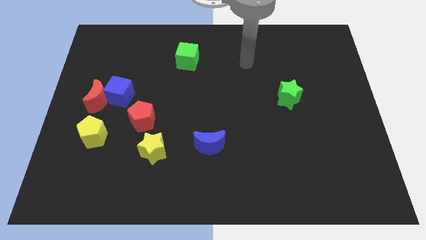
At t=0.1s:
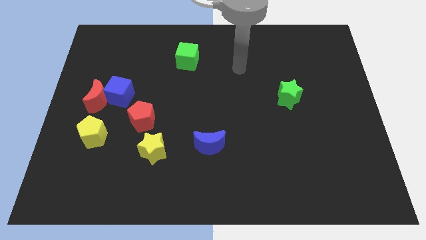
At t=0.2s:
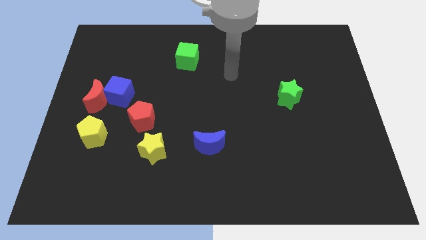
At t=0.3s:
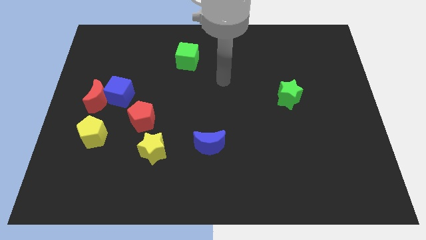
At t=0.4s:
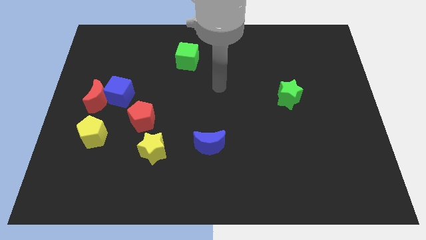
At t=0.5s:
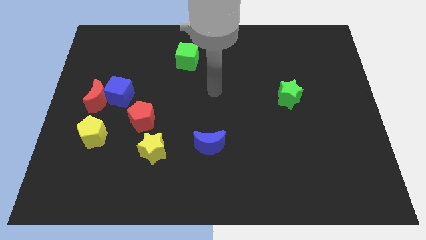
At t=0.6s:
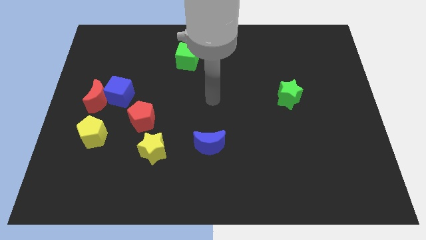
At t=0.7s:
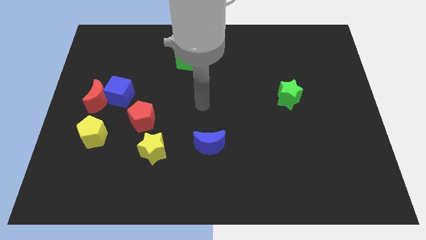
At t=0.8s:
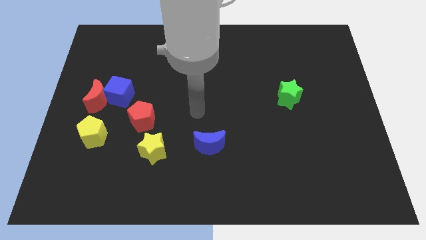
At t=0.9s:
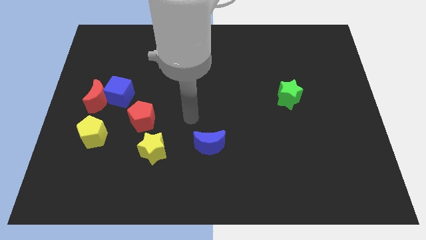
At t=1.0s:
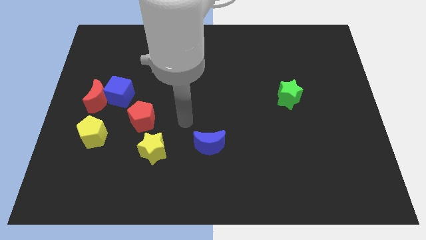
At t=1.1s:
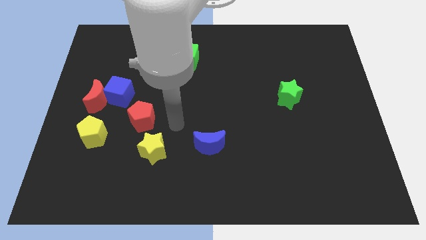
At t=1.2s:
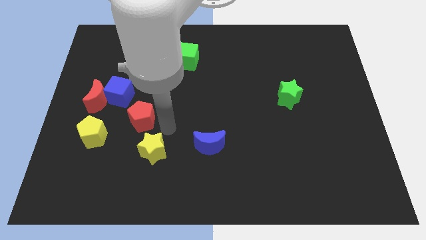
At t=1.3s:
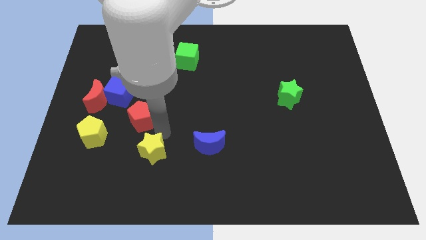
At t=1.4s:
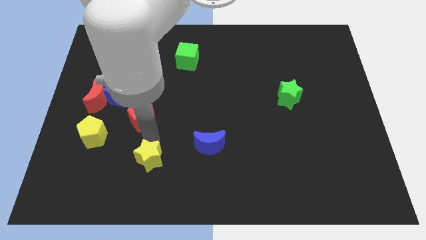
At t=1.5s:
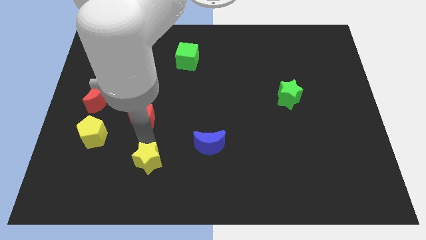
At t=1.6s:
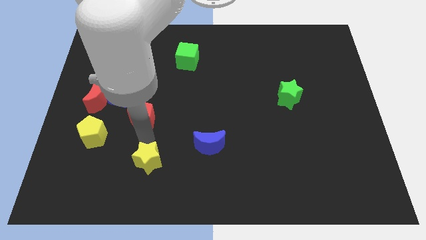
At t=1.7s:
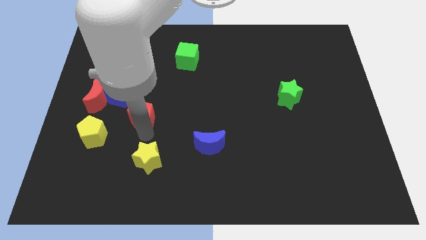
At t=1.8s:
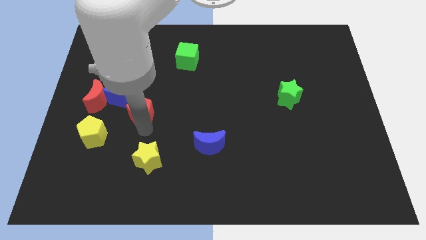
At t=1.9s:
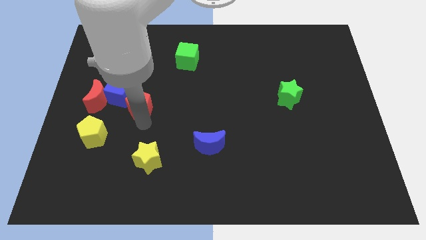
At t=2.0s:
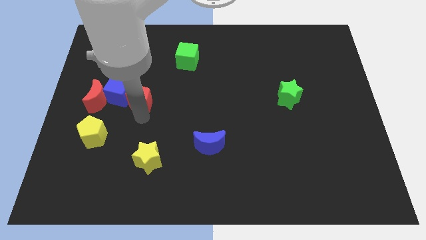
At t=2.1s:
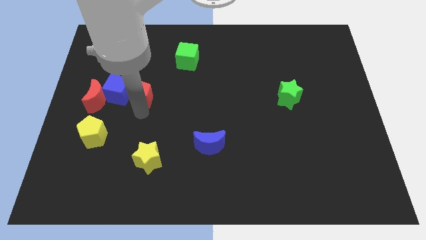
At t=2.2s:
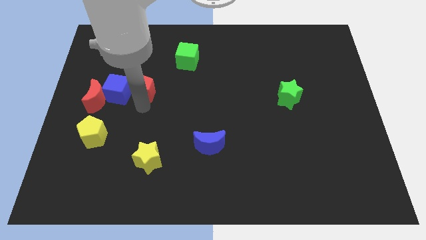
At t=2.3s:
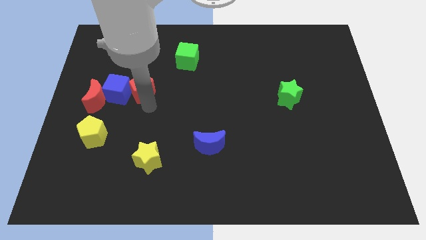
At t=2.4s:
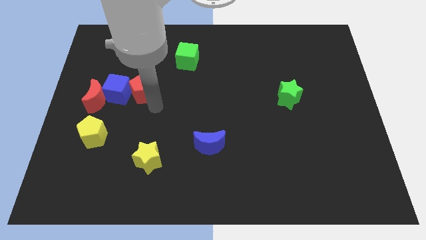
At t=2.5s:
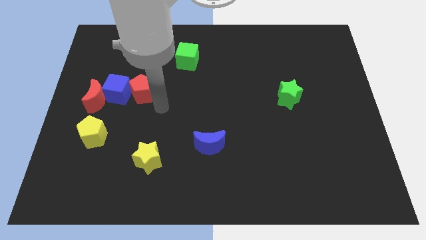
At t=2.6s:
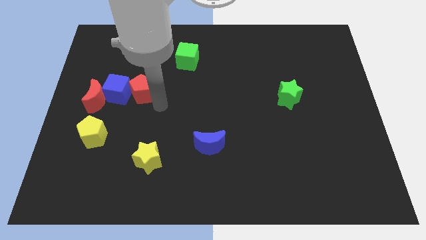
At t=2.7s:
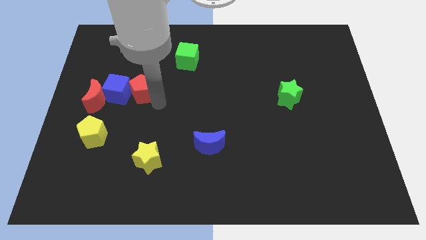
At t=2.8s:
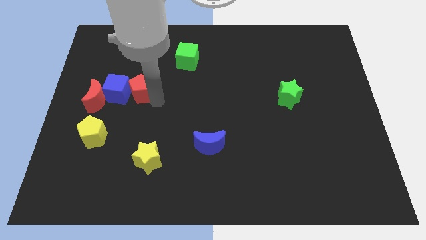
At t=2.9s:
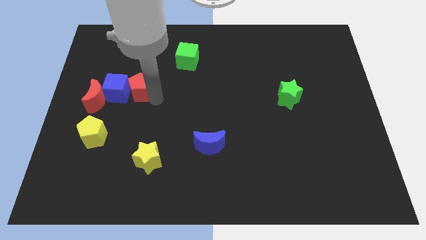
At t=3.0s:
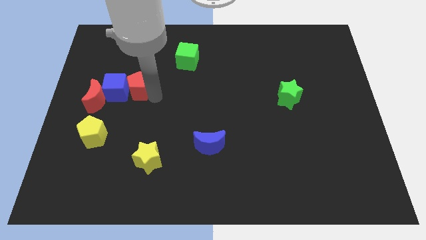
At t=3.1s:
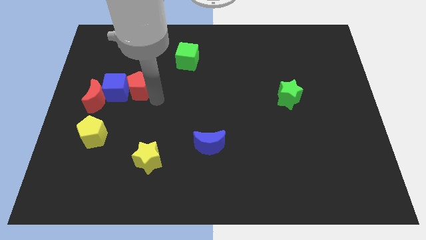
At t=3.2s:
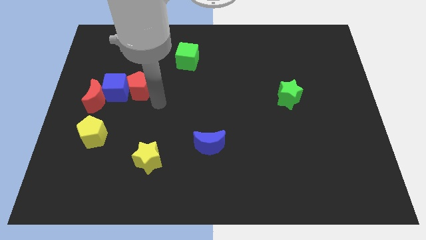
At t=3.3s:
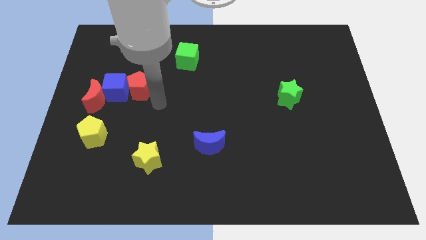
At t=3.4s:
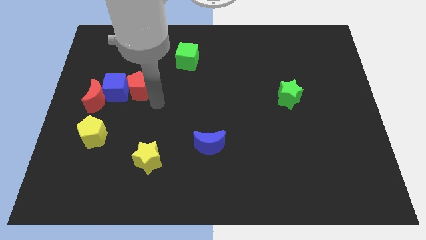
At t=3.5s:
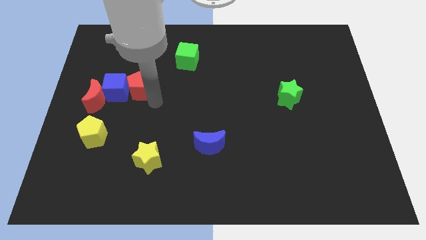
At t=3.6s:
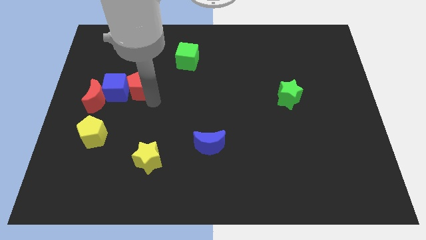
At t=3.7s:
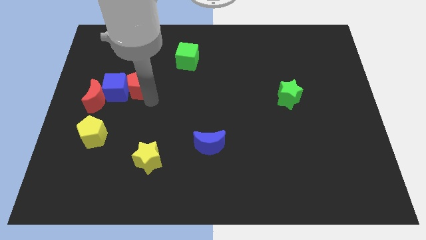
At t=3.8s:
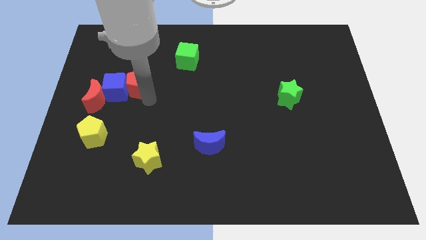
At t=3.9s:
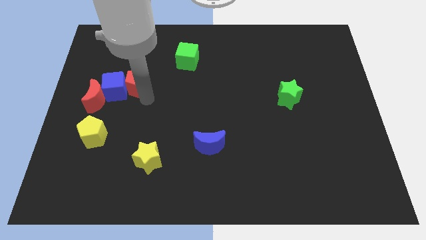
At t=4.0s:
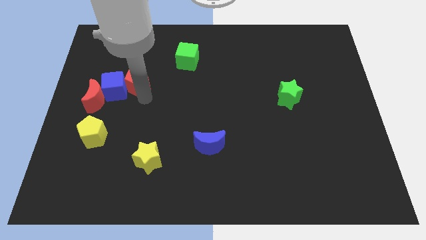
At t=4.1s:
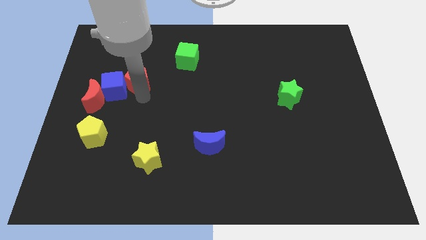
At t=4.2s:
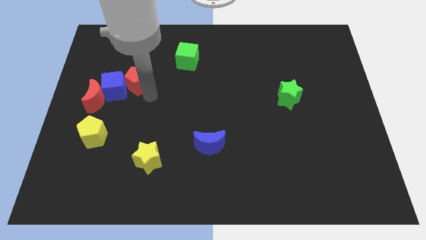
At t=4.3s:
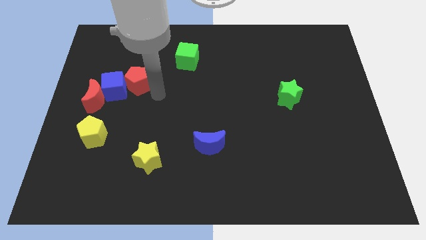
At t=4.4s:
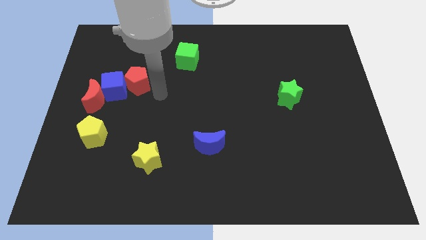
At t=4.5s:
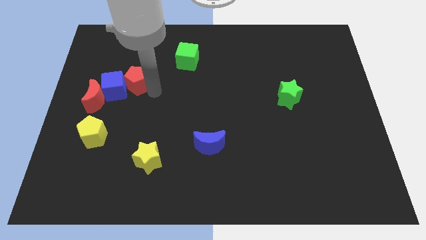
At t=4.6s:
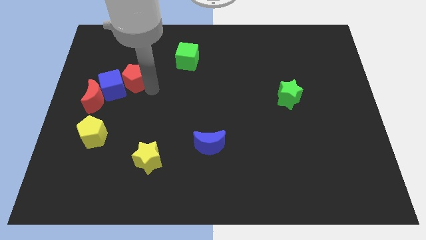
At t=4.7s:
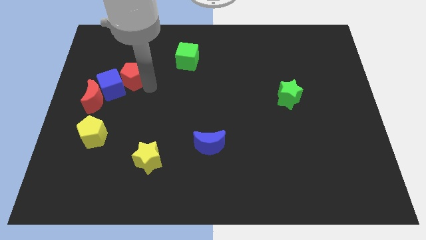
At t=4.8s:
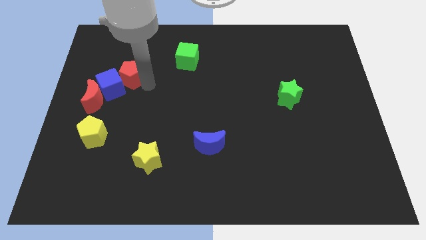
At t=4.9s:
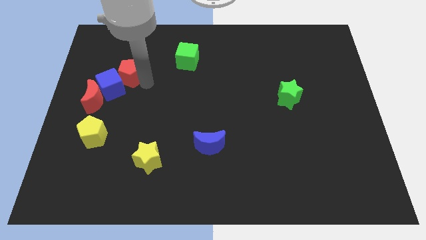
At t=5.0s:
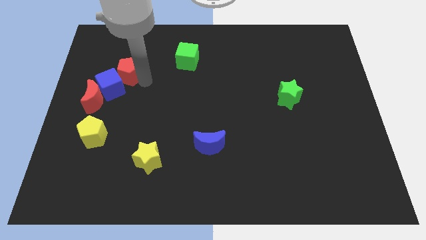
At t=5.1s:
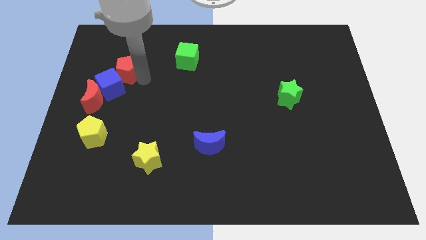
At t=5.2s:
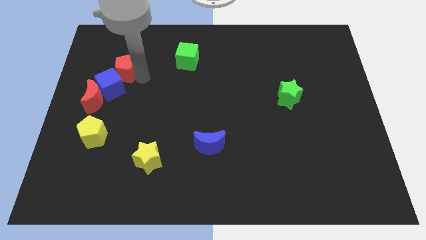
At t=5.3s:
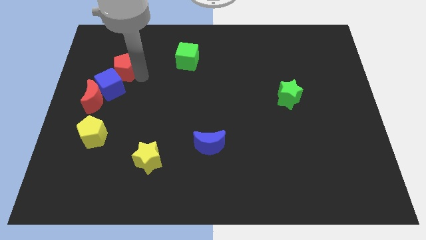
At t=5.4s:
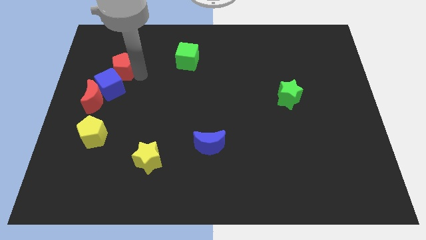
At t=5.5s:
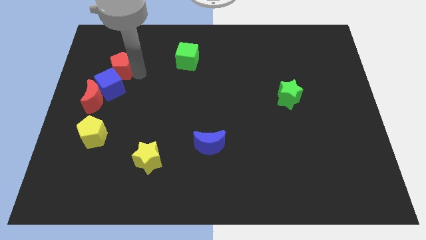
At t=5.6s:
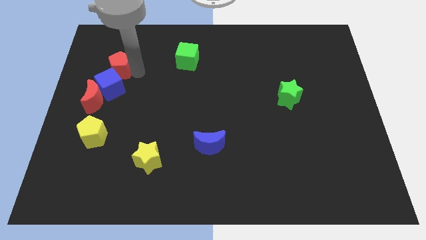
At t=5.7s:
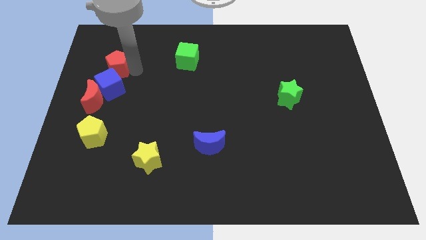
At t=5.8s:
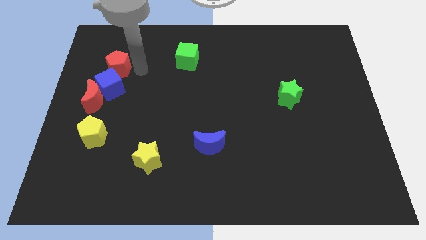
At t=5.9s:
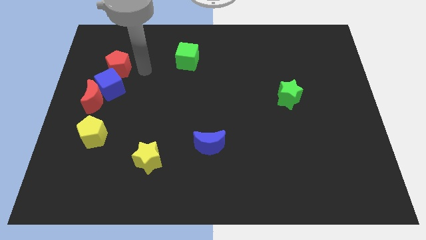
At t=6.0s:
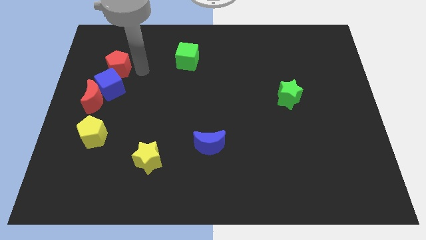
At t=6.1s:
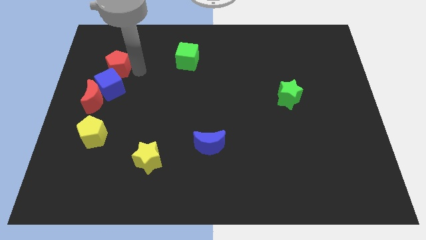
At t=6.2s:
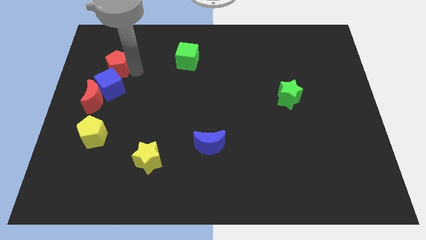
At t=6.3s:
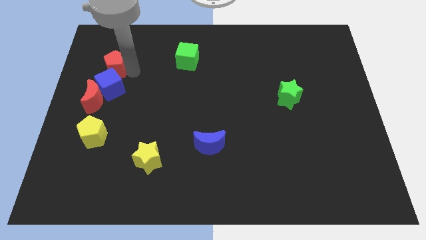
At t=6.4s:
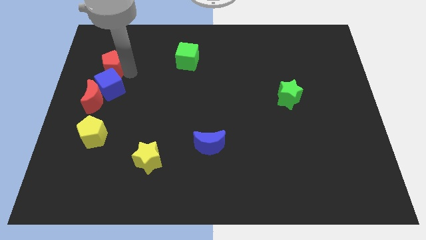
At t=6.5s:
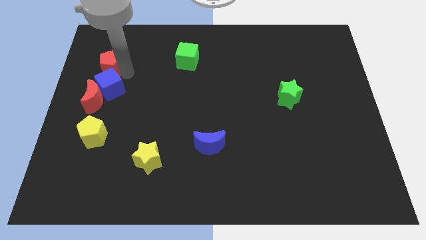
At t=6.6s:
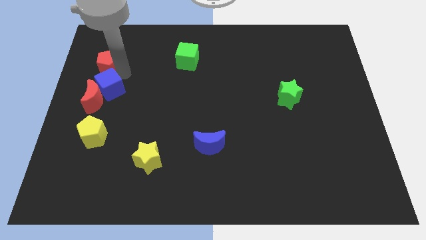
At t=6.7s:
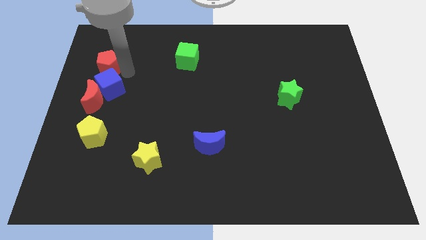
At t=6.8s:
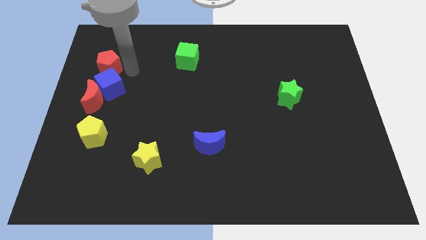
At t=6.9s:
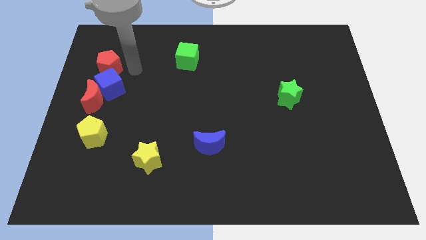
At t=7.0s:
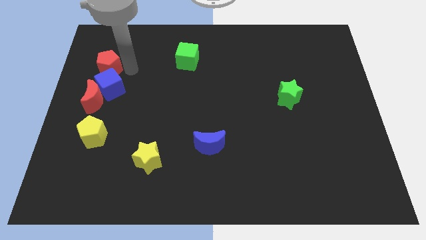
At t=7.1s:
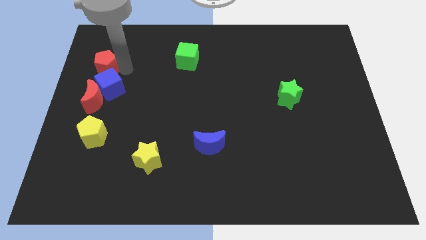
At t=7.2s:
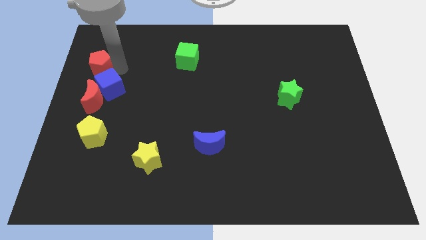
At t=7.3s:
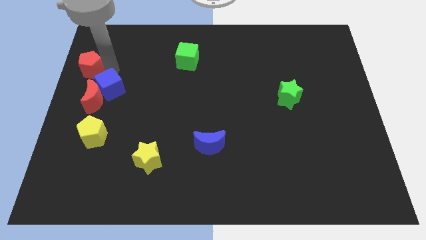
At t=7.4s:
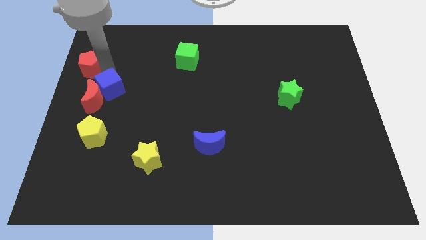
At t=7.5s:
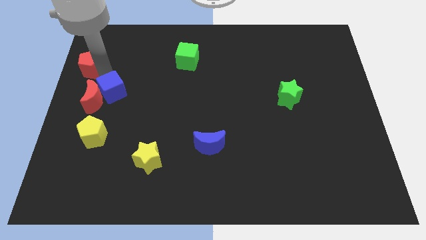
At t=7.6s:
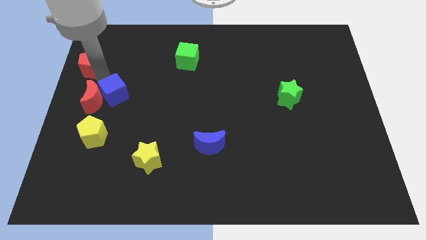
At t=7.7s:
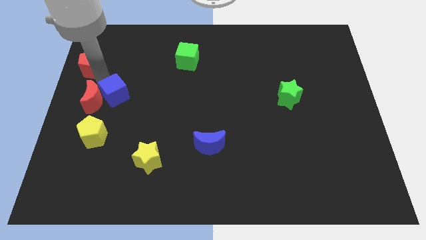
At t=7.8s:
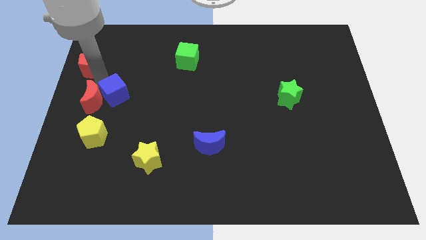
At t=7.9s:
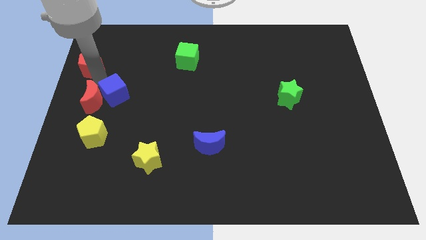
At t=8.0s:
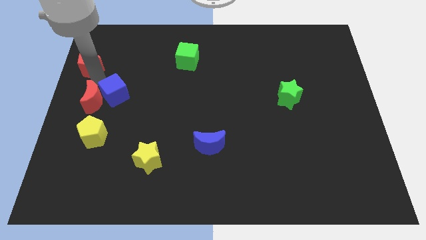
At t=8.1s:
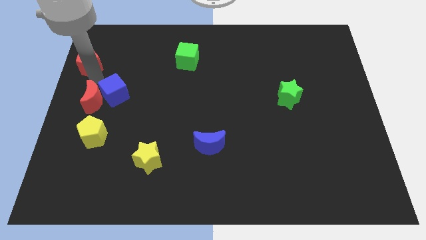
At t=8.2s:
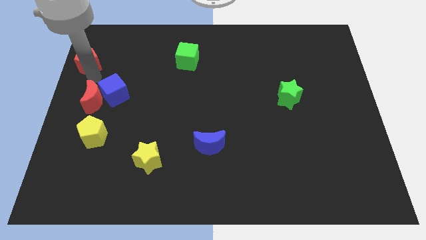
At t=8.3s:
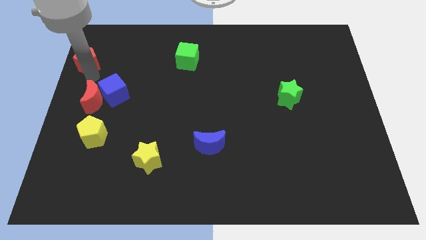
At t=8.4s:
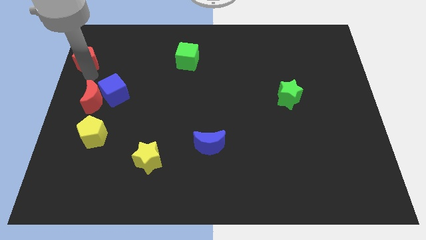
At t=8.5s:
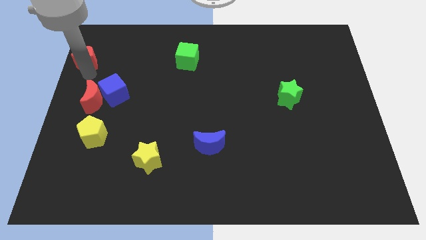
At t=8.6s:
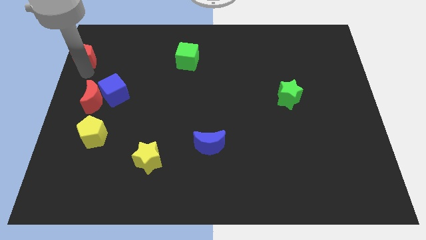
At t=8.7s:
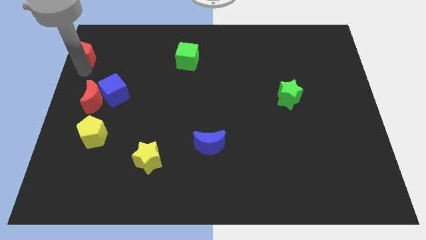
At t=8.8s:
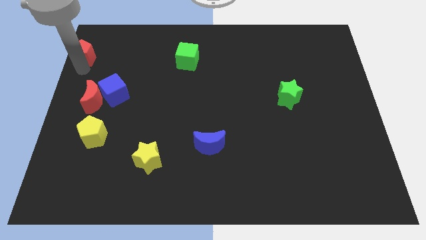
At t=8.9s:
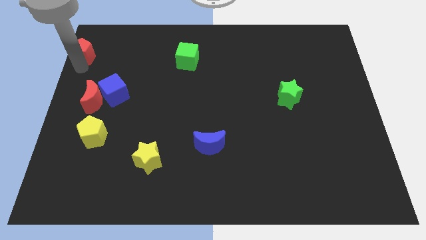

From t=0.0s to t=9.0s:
slide the red pentagon to the upper left corner
